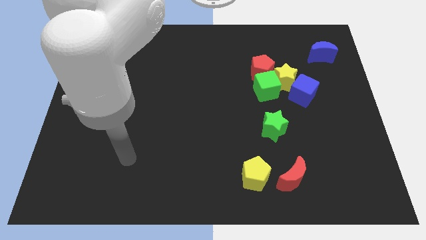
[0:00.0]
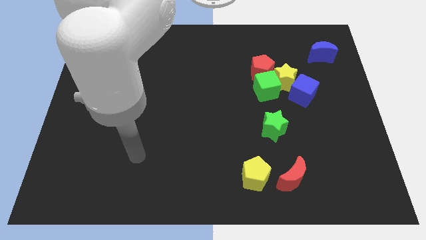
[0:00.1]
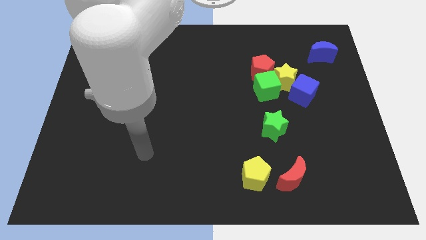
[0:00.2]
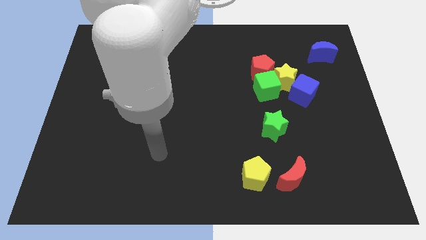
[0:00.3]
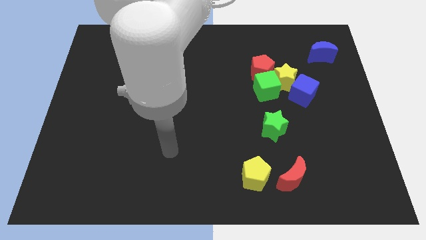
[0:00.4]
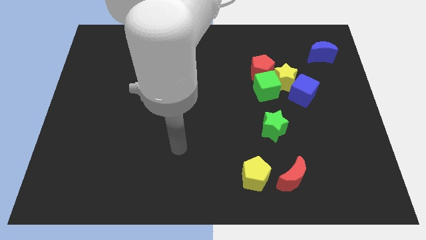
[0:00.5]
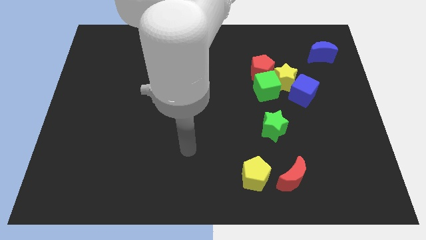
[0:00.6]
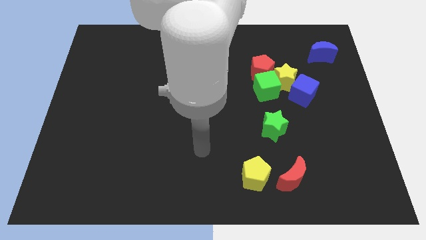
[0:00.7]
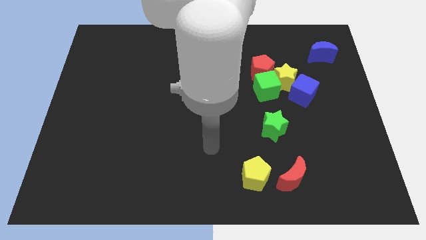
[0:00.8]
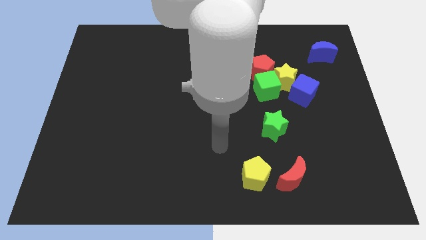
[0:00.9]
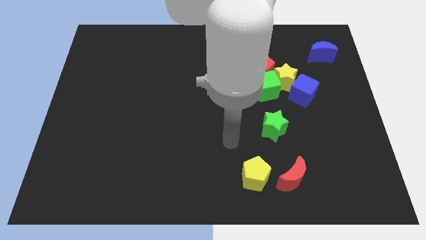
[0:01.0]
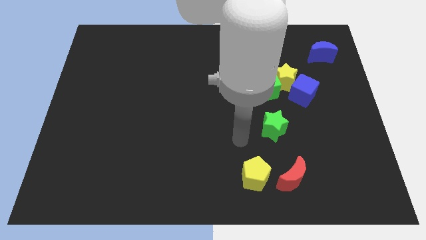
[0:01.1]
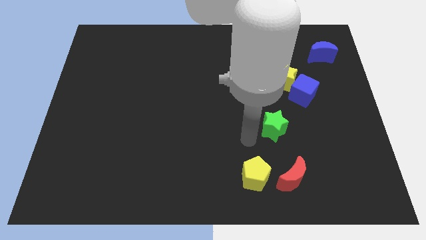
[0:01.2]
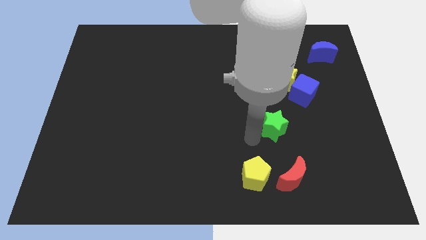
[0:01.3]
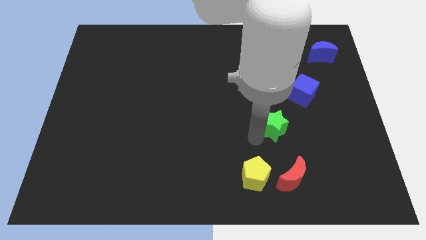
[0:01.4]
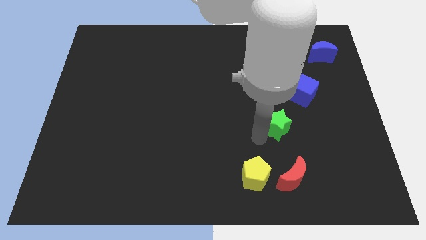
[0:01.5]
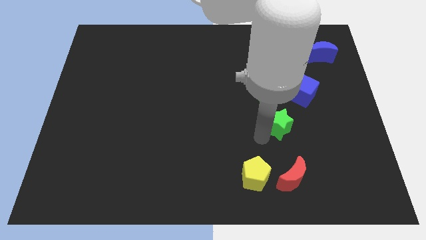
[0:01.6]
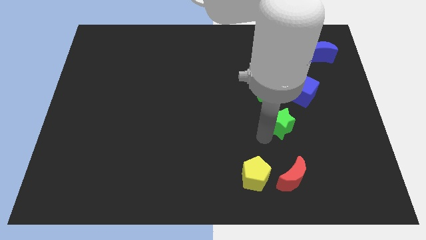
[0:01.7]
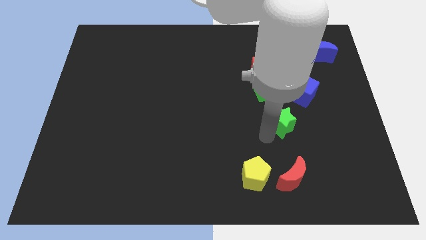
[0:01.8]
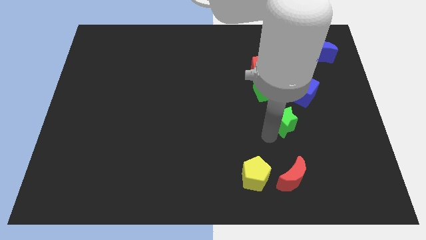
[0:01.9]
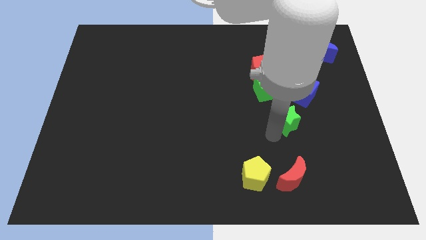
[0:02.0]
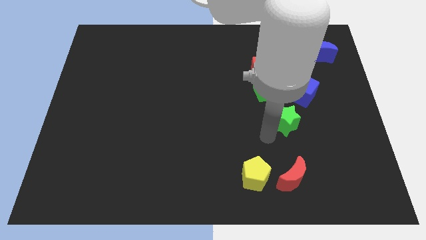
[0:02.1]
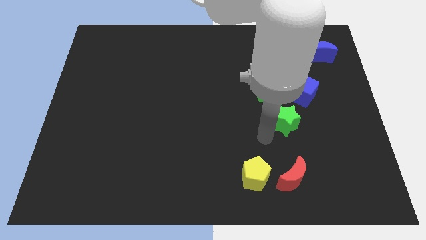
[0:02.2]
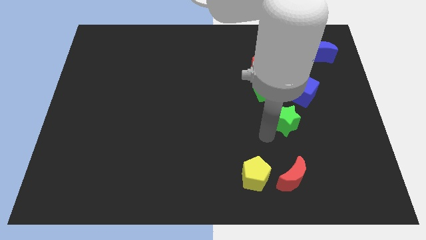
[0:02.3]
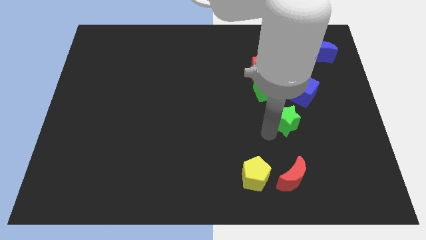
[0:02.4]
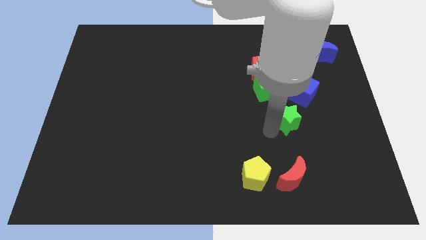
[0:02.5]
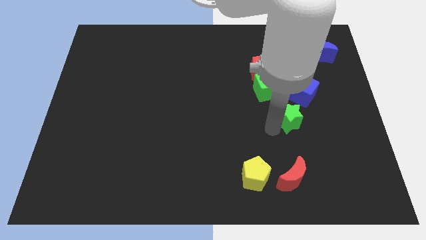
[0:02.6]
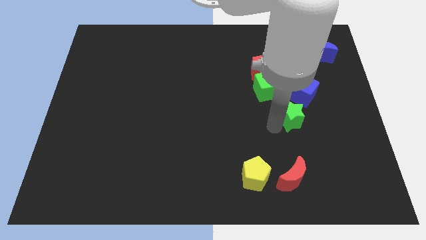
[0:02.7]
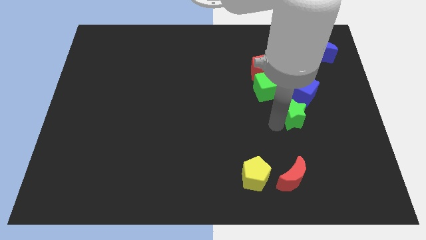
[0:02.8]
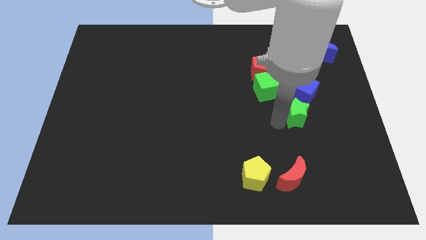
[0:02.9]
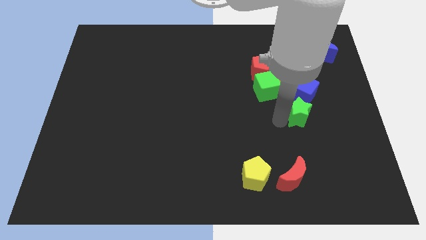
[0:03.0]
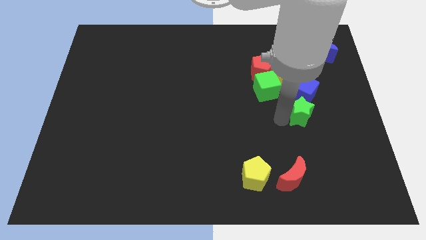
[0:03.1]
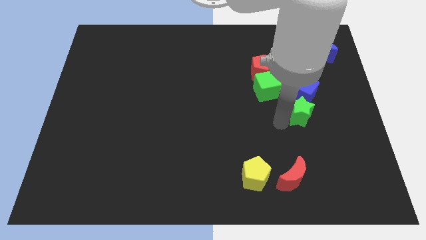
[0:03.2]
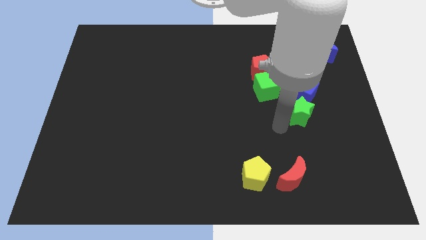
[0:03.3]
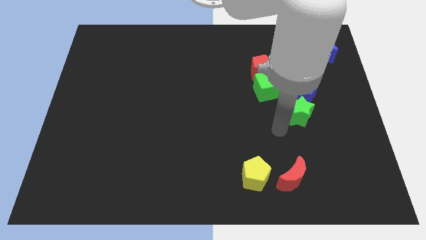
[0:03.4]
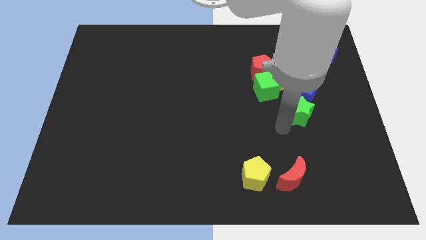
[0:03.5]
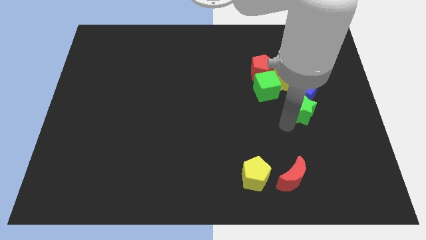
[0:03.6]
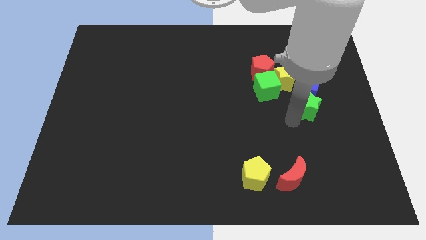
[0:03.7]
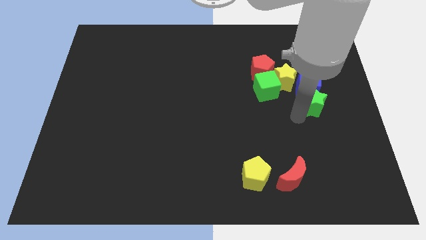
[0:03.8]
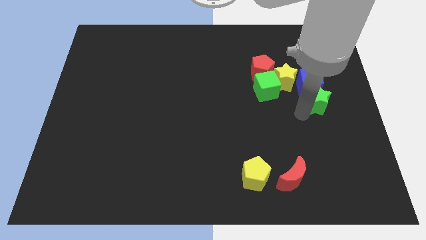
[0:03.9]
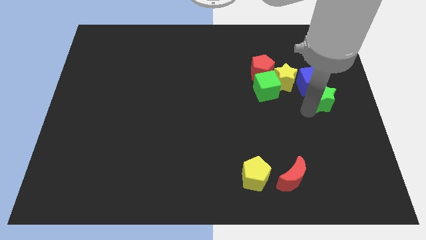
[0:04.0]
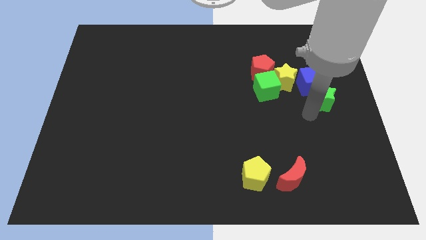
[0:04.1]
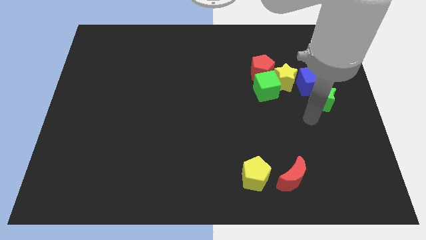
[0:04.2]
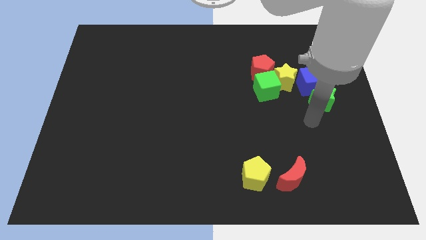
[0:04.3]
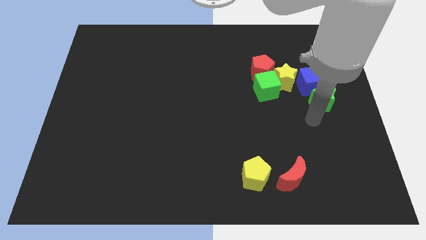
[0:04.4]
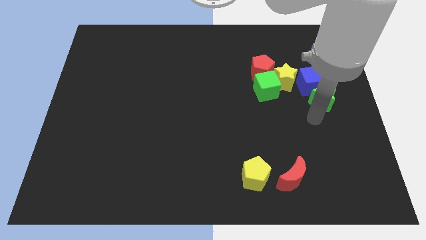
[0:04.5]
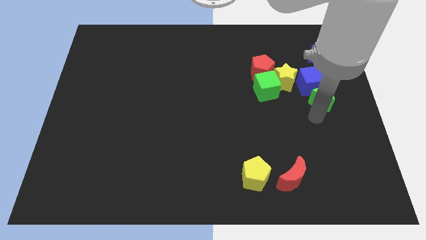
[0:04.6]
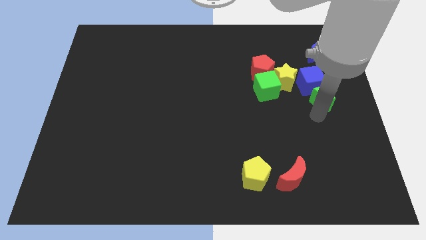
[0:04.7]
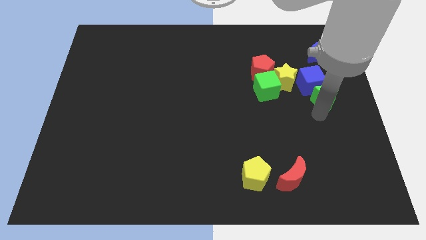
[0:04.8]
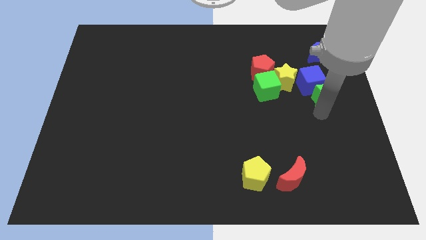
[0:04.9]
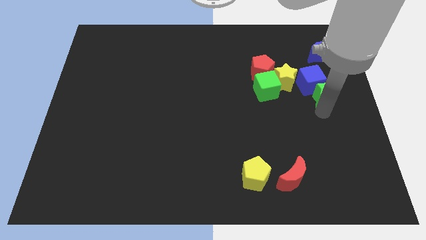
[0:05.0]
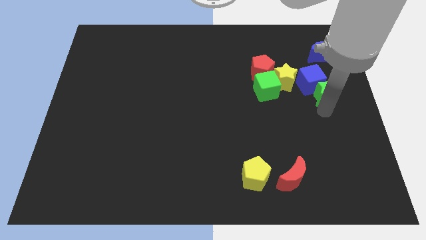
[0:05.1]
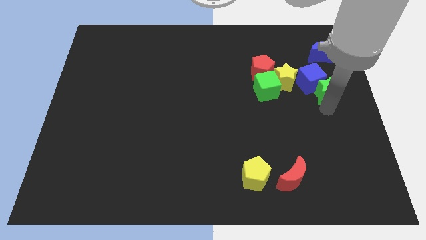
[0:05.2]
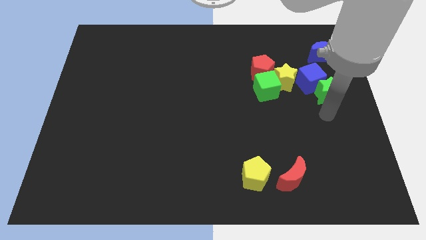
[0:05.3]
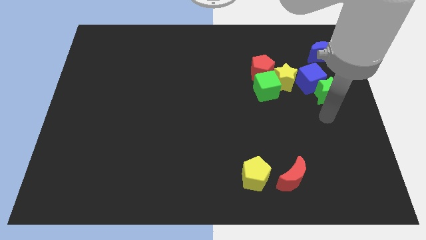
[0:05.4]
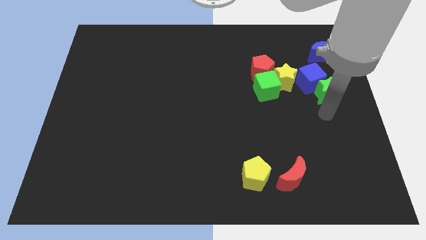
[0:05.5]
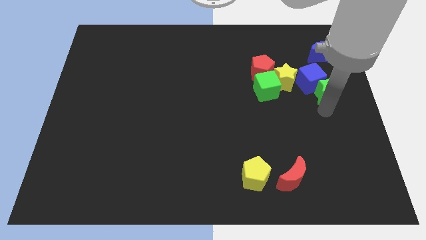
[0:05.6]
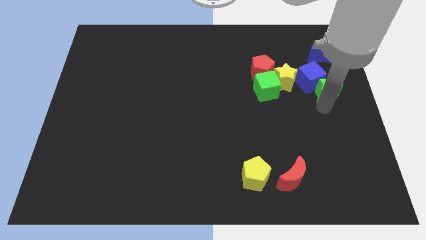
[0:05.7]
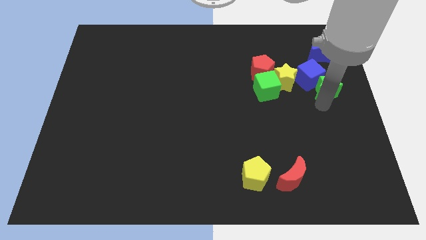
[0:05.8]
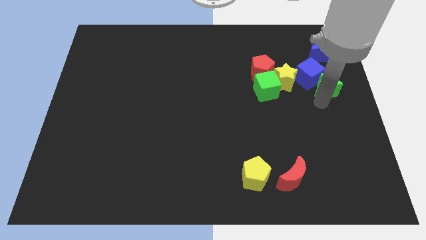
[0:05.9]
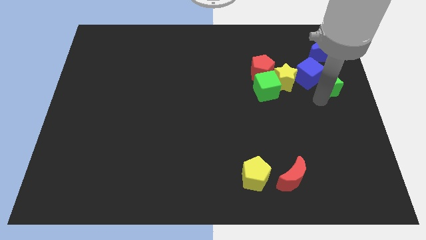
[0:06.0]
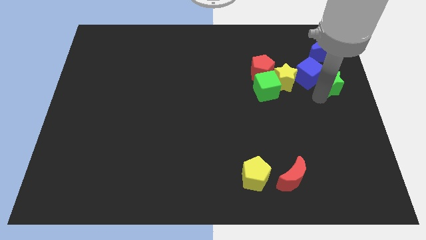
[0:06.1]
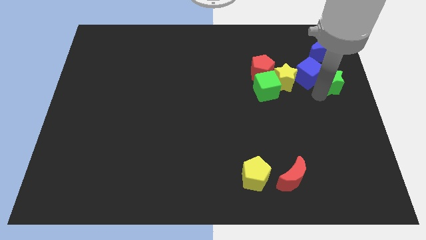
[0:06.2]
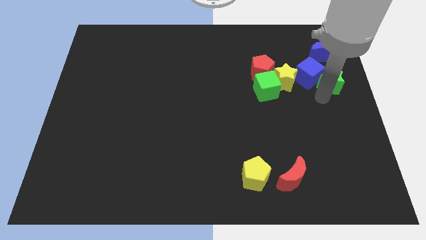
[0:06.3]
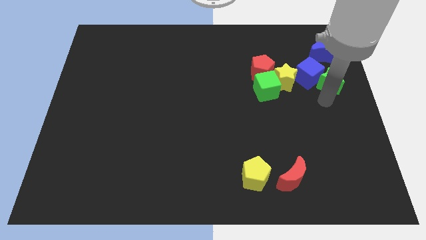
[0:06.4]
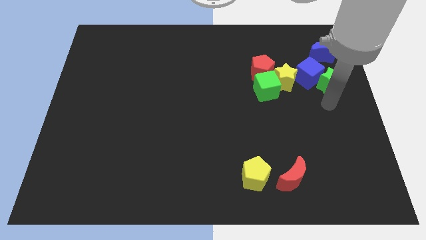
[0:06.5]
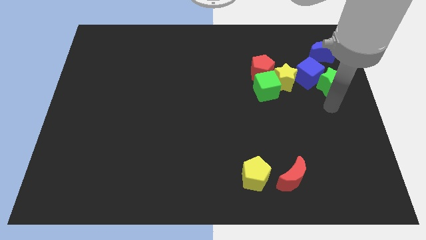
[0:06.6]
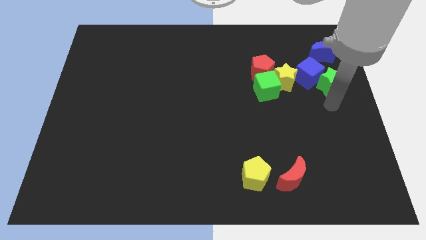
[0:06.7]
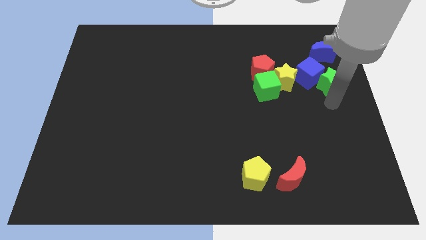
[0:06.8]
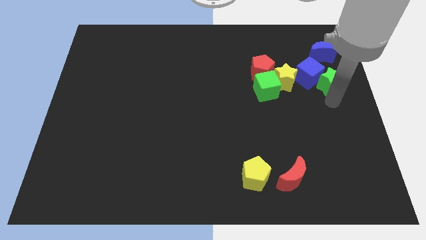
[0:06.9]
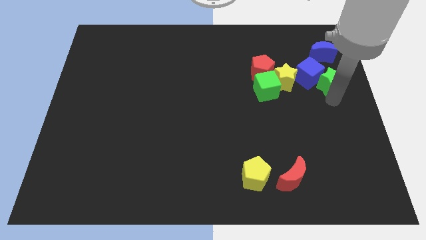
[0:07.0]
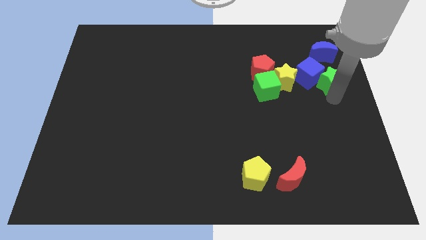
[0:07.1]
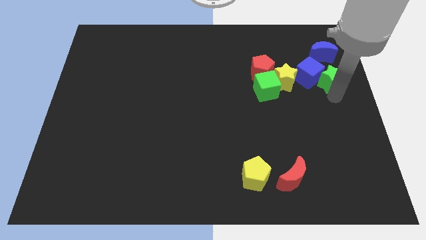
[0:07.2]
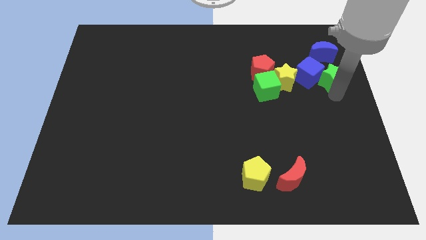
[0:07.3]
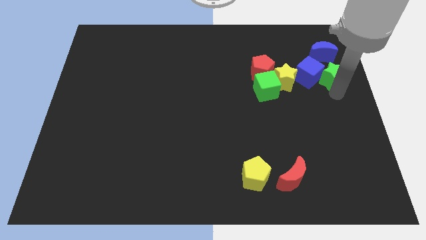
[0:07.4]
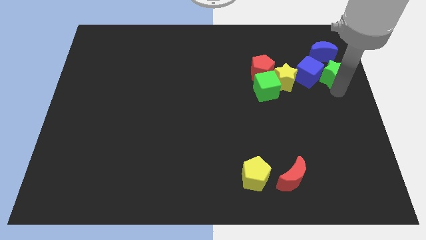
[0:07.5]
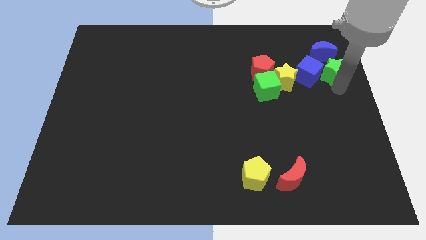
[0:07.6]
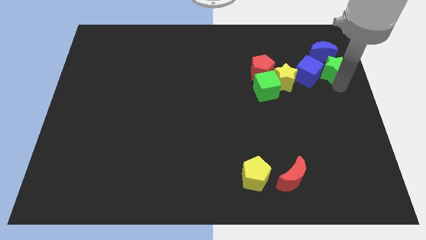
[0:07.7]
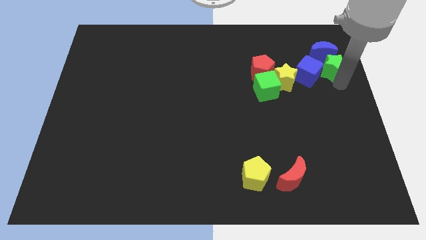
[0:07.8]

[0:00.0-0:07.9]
move the green star to the blue moon

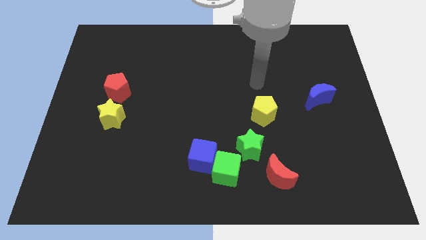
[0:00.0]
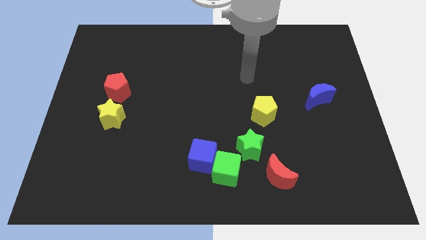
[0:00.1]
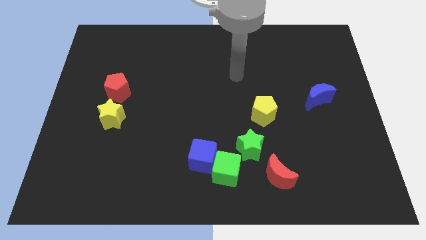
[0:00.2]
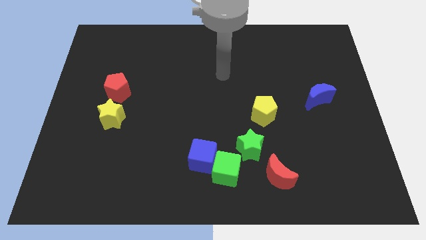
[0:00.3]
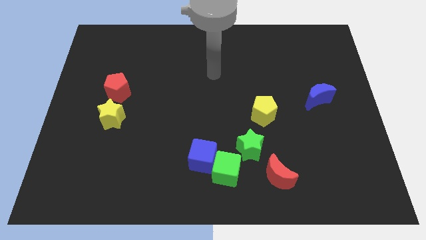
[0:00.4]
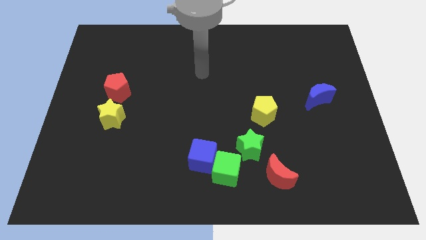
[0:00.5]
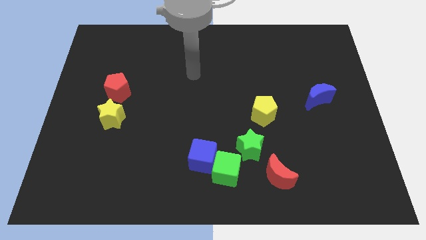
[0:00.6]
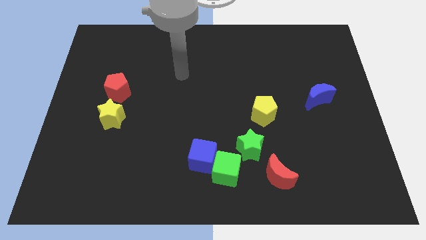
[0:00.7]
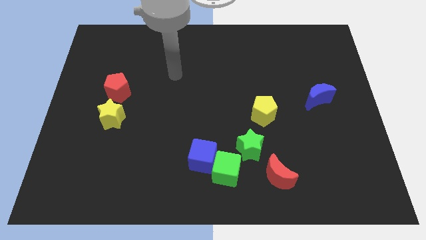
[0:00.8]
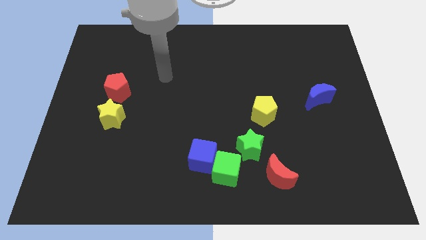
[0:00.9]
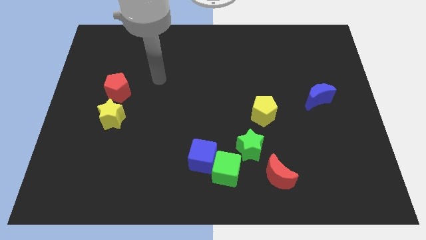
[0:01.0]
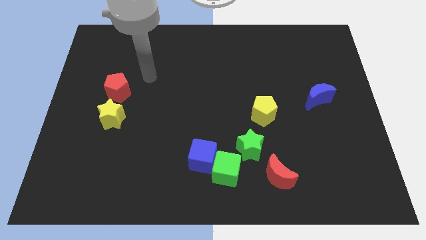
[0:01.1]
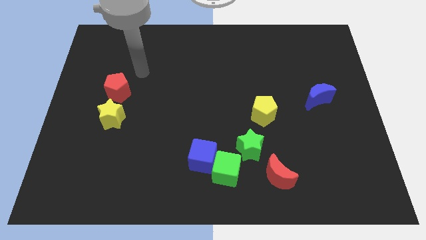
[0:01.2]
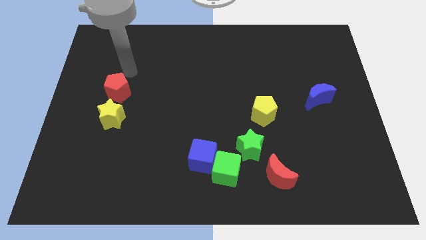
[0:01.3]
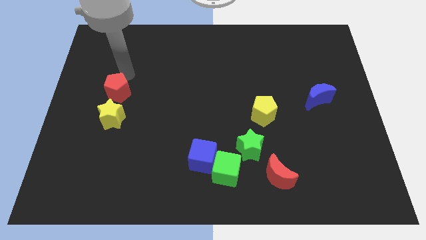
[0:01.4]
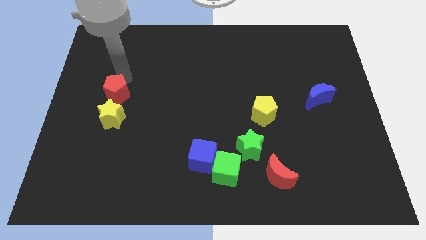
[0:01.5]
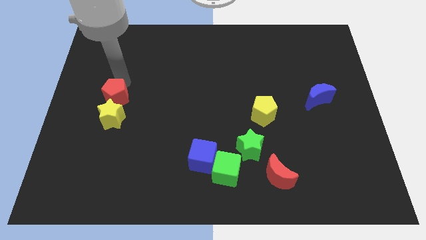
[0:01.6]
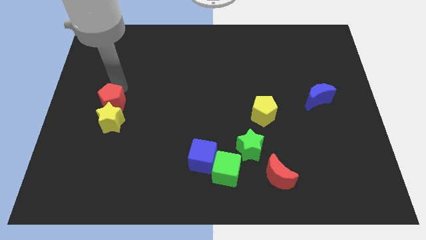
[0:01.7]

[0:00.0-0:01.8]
slide the red pentagon next to the yellow star
